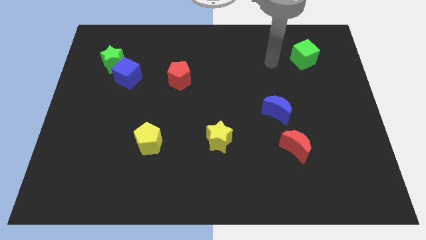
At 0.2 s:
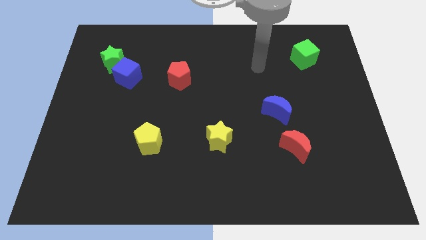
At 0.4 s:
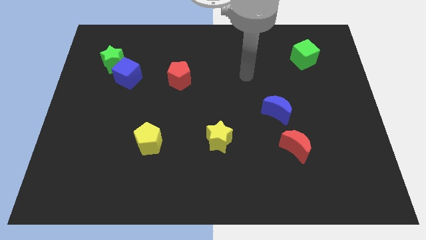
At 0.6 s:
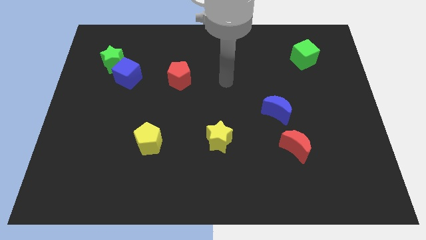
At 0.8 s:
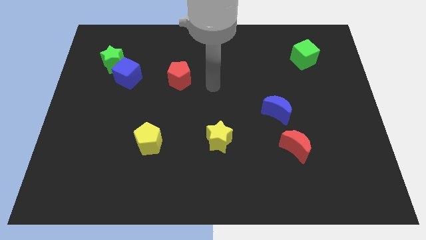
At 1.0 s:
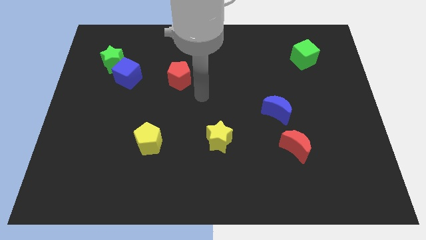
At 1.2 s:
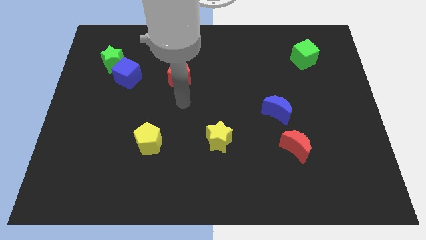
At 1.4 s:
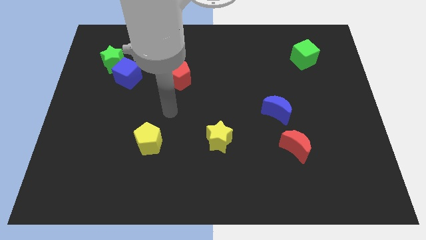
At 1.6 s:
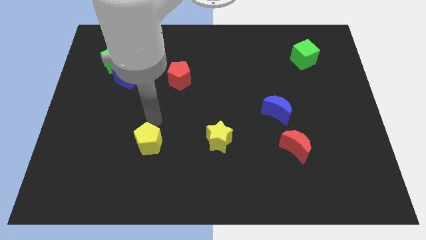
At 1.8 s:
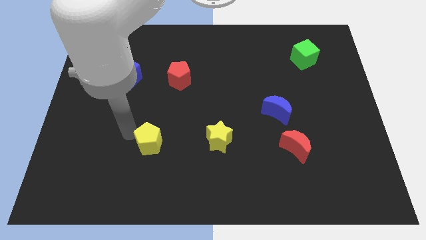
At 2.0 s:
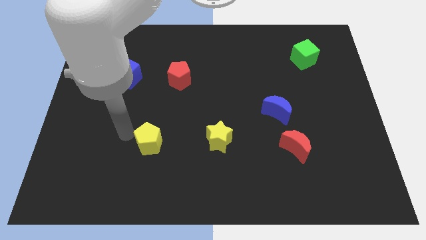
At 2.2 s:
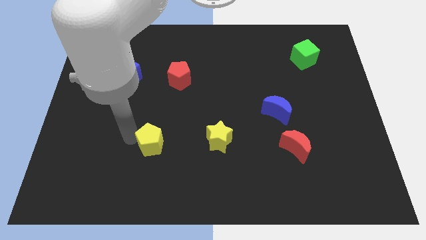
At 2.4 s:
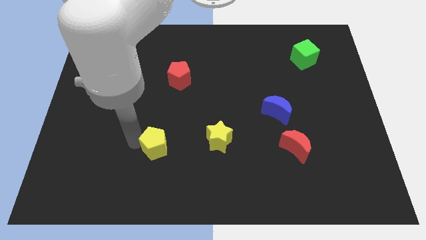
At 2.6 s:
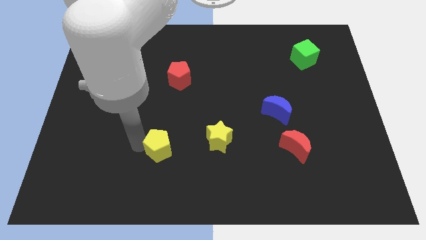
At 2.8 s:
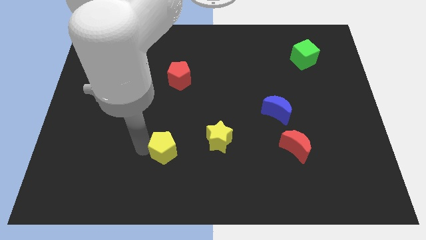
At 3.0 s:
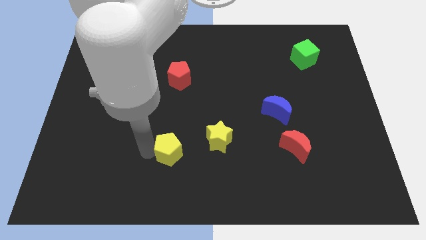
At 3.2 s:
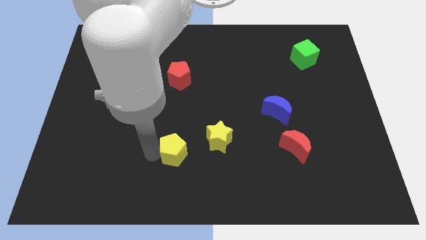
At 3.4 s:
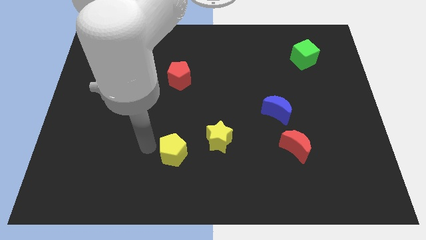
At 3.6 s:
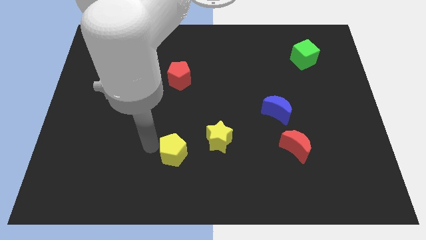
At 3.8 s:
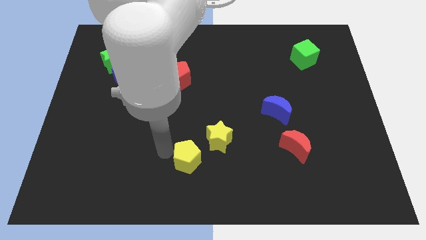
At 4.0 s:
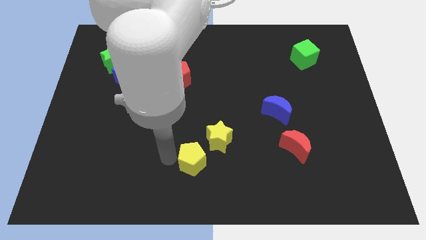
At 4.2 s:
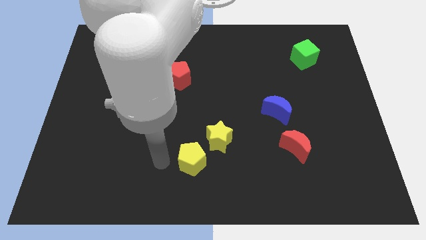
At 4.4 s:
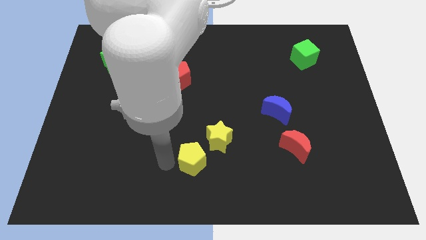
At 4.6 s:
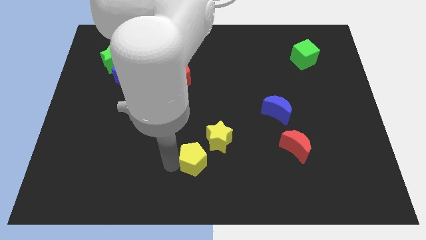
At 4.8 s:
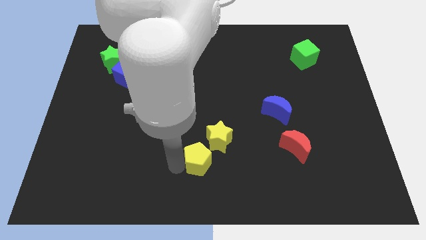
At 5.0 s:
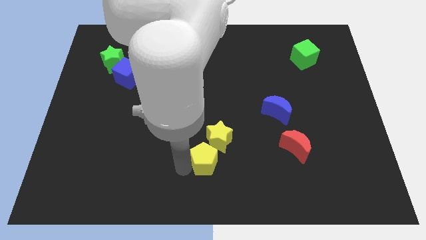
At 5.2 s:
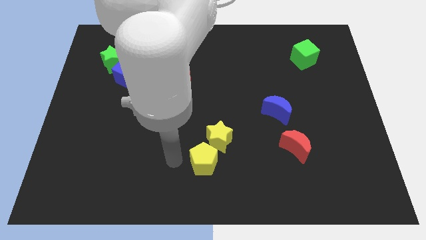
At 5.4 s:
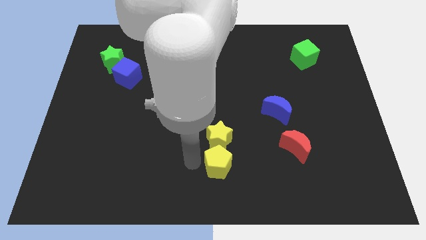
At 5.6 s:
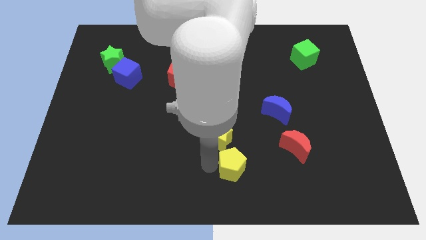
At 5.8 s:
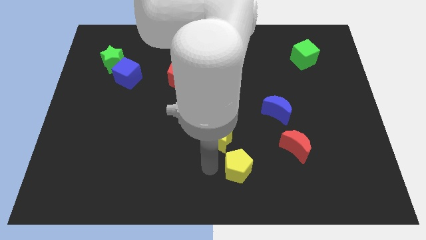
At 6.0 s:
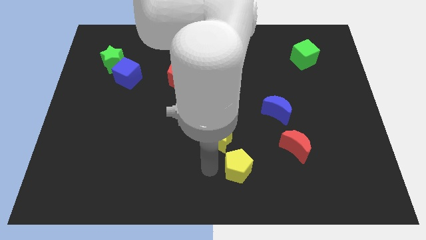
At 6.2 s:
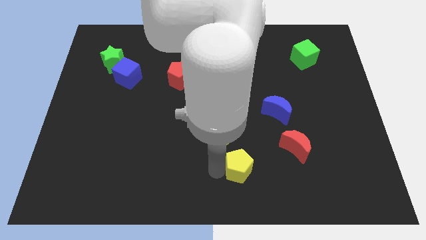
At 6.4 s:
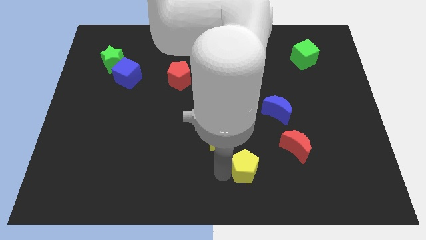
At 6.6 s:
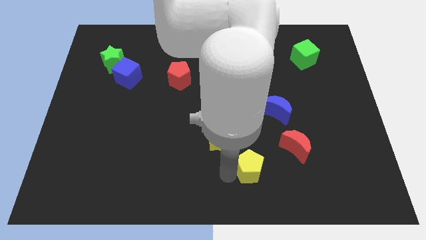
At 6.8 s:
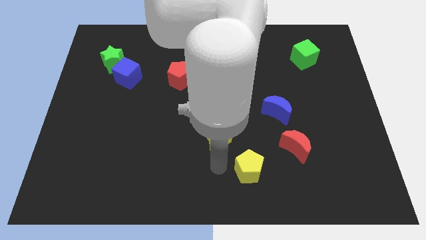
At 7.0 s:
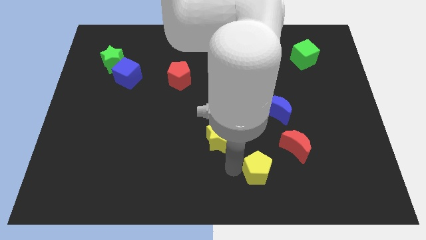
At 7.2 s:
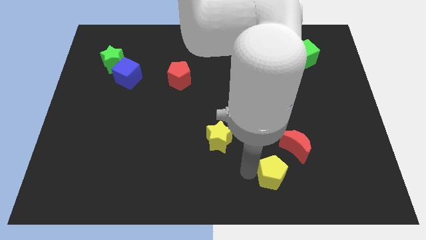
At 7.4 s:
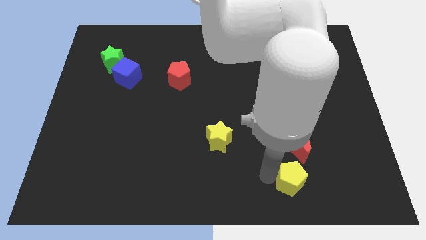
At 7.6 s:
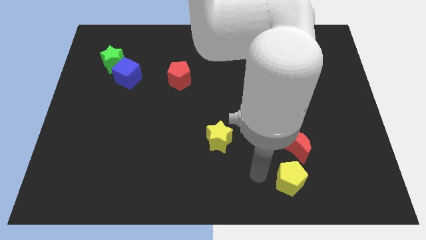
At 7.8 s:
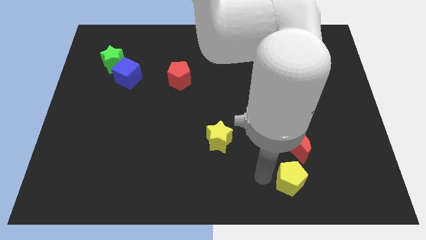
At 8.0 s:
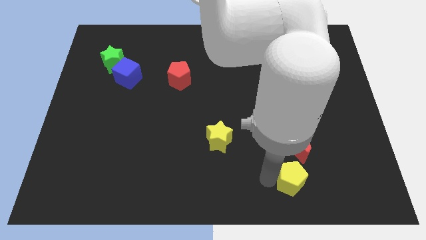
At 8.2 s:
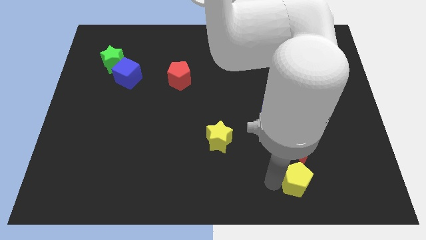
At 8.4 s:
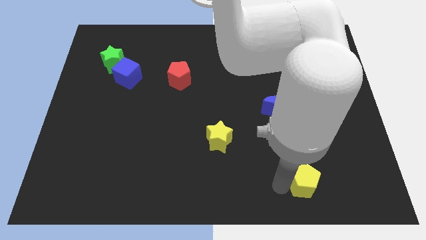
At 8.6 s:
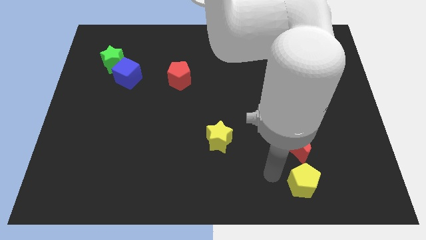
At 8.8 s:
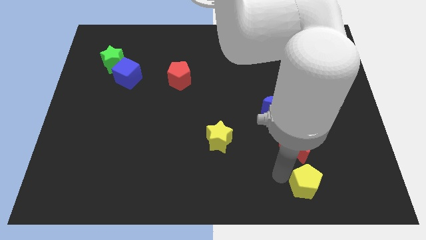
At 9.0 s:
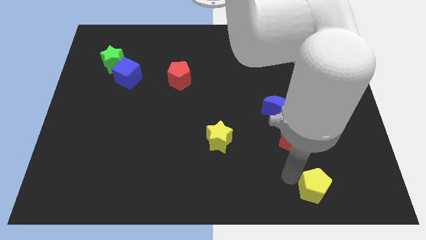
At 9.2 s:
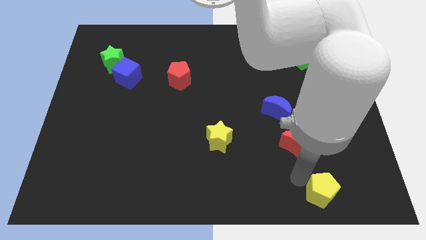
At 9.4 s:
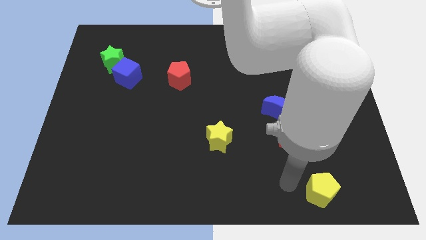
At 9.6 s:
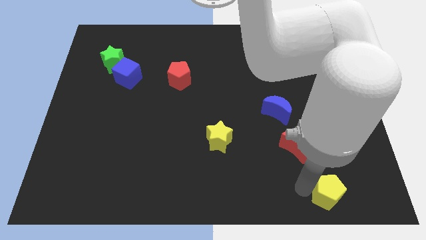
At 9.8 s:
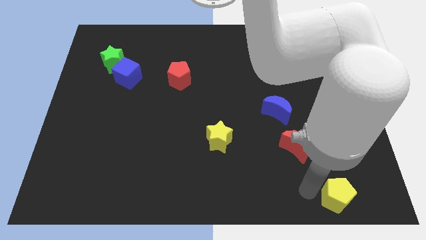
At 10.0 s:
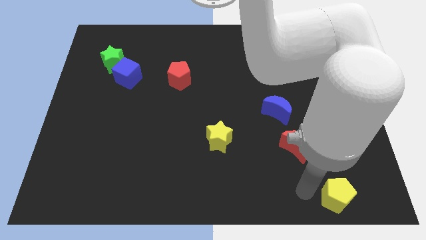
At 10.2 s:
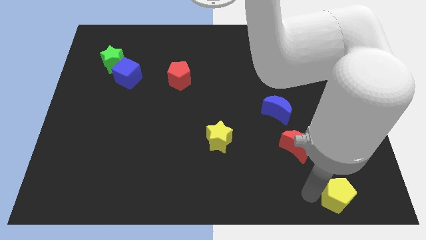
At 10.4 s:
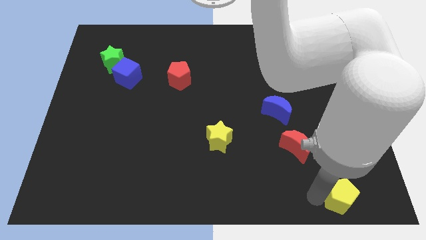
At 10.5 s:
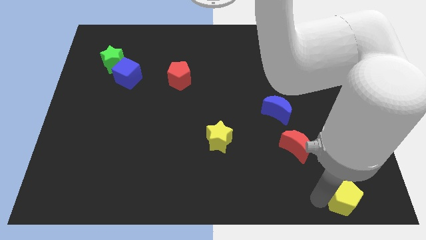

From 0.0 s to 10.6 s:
move the yellow pentagon to the lower right corner

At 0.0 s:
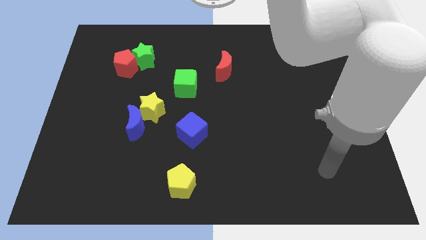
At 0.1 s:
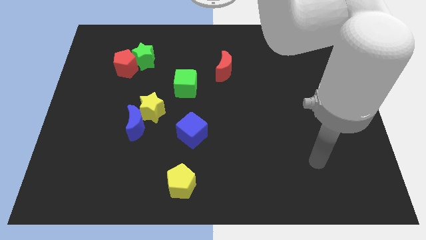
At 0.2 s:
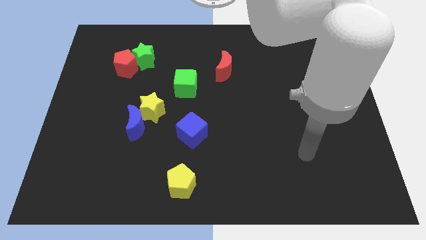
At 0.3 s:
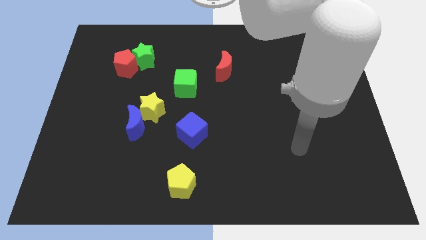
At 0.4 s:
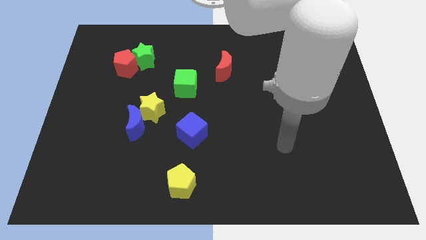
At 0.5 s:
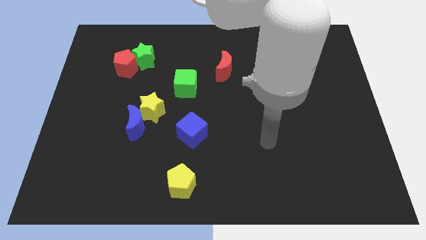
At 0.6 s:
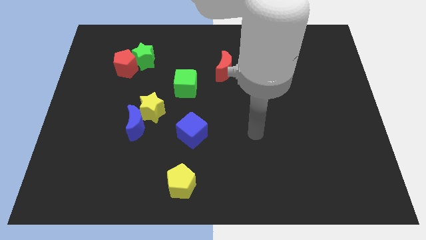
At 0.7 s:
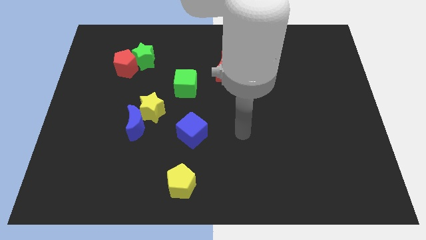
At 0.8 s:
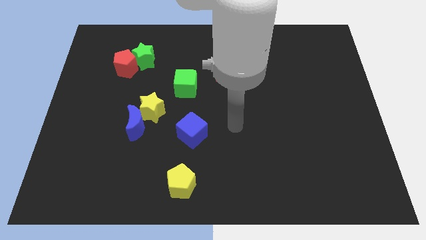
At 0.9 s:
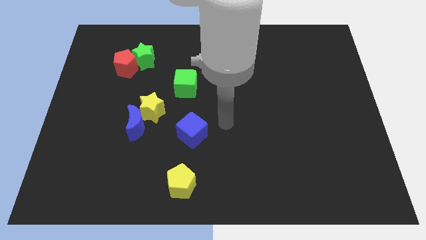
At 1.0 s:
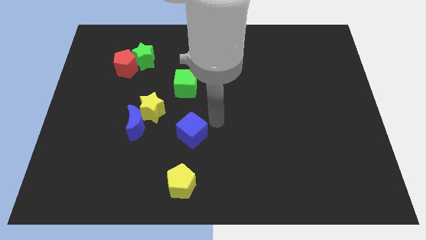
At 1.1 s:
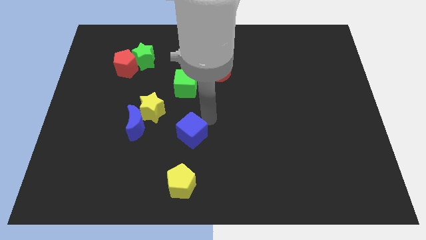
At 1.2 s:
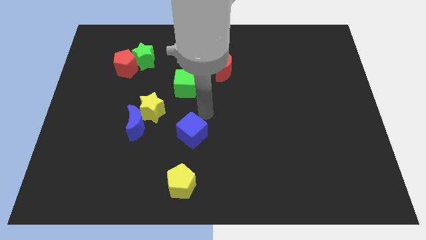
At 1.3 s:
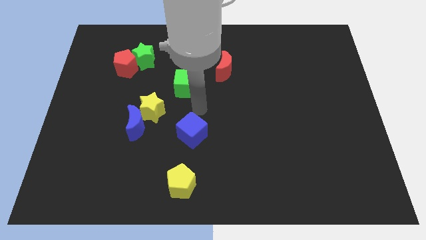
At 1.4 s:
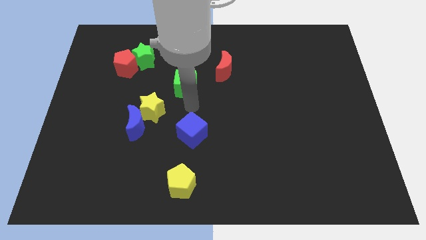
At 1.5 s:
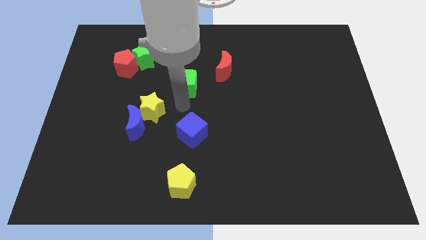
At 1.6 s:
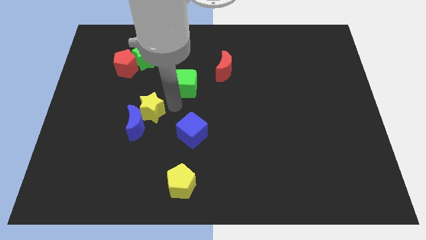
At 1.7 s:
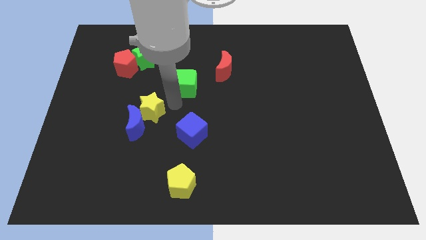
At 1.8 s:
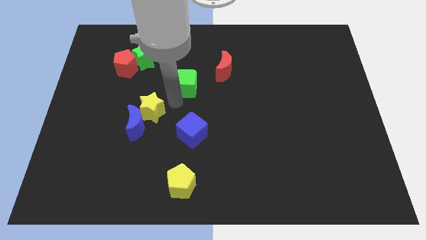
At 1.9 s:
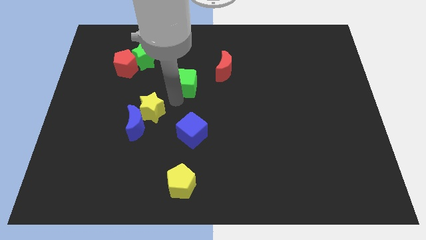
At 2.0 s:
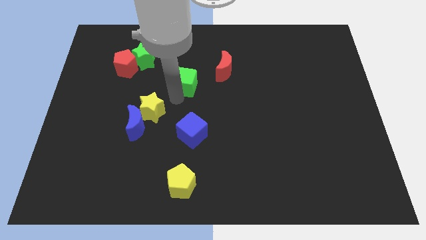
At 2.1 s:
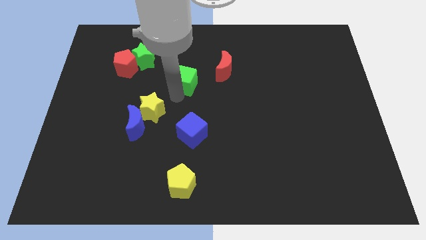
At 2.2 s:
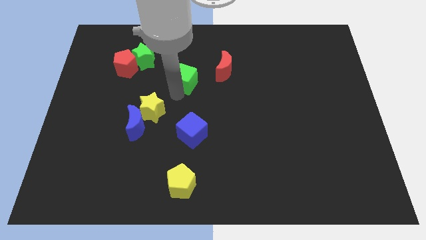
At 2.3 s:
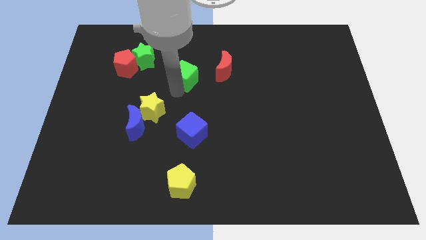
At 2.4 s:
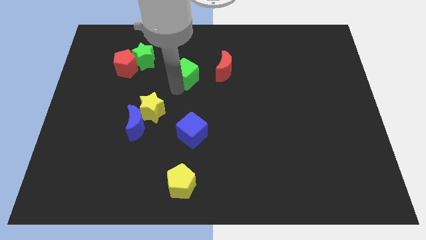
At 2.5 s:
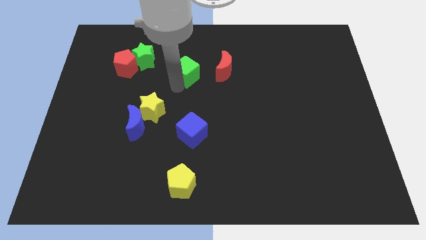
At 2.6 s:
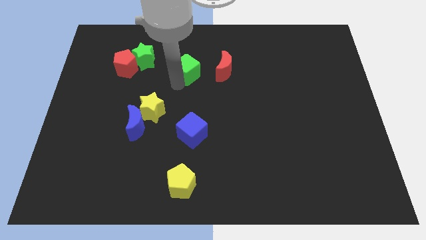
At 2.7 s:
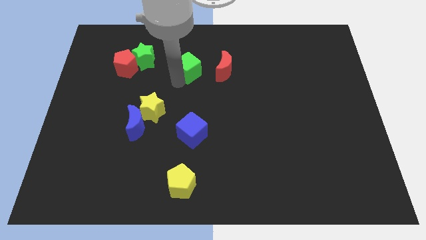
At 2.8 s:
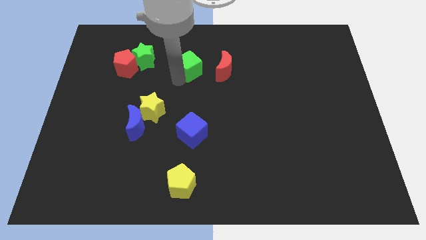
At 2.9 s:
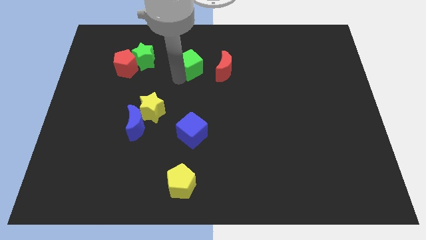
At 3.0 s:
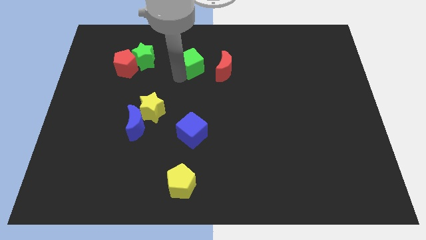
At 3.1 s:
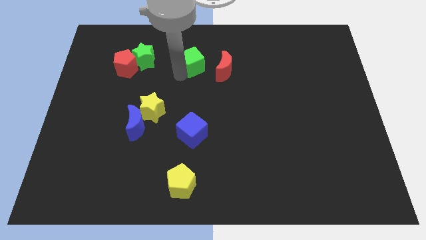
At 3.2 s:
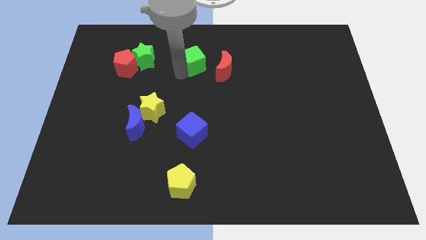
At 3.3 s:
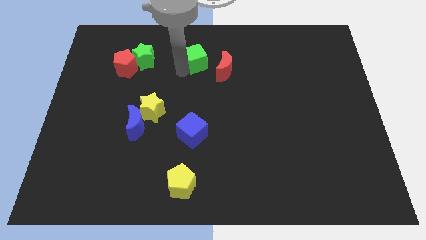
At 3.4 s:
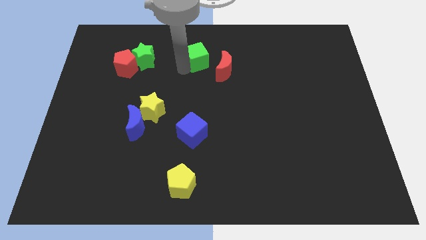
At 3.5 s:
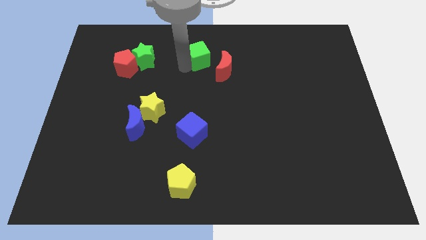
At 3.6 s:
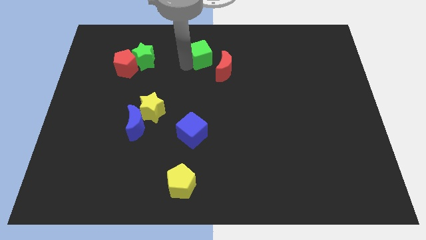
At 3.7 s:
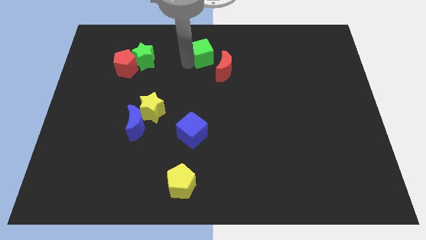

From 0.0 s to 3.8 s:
push the green cube to the top
